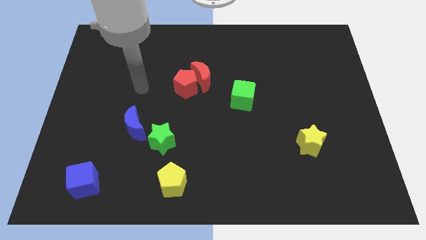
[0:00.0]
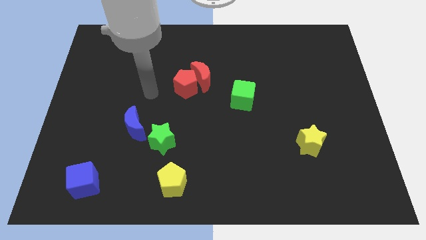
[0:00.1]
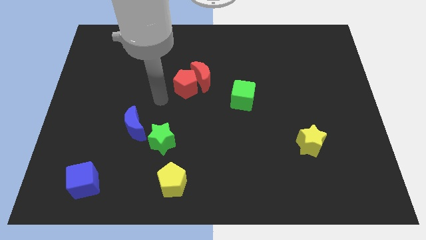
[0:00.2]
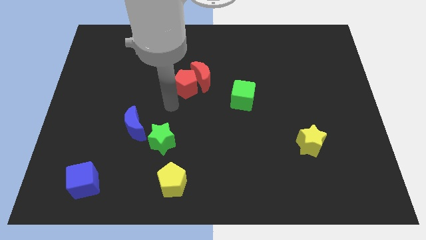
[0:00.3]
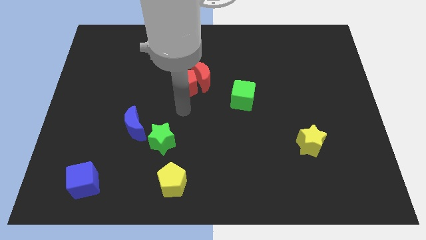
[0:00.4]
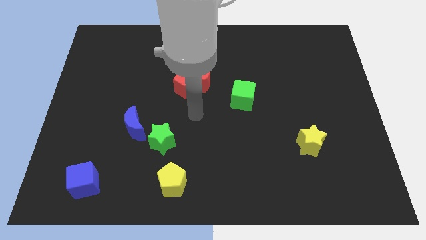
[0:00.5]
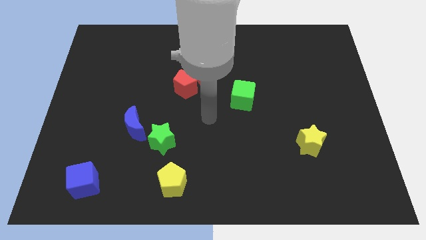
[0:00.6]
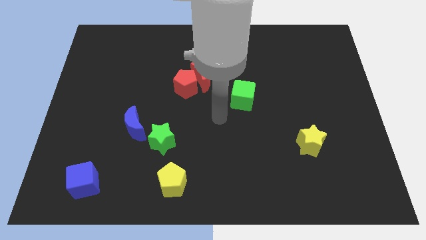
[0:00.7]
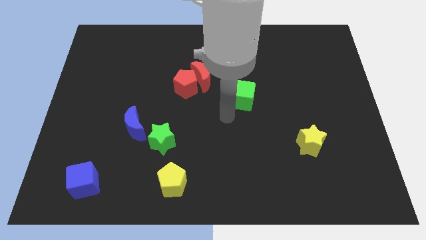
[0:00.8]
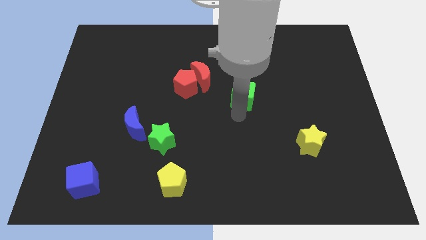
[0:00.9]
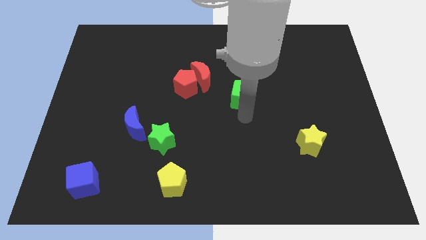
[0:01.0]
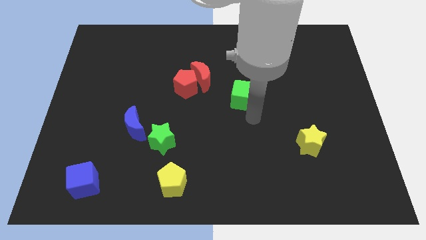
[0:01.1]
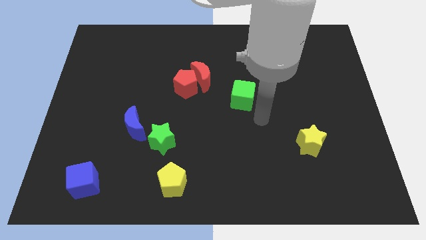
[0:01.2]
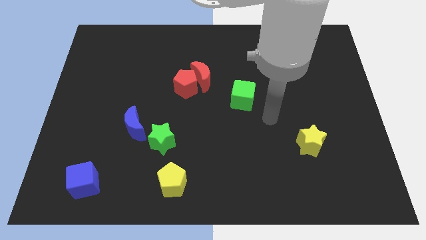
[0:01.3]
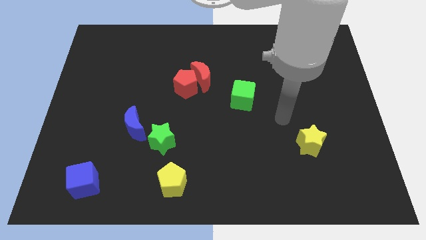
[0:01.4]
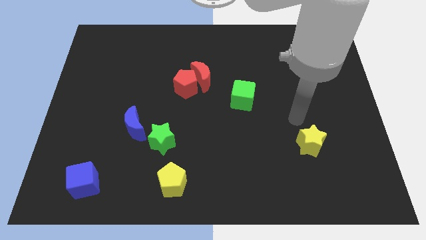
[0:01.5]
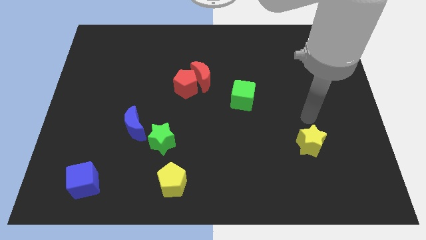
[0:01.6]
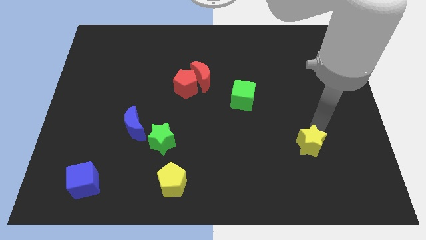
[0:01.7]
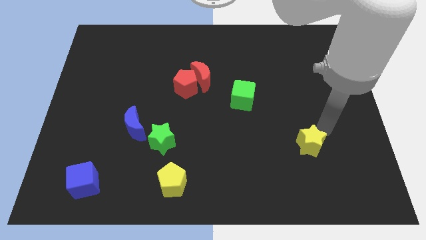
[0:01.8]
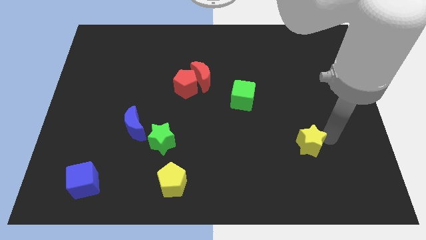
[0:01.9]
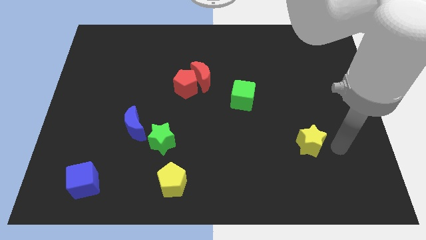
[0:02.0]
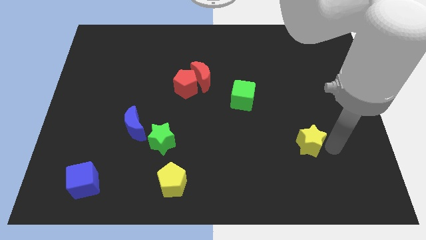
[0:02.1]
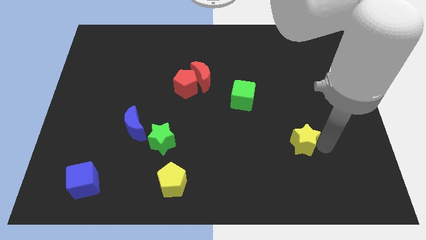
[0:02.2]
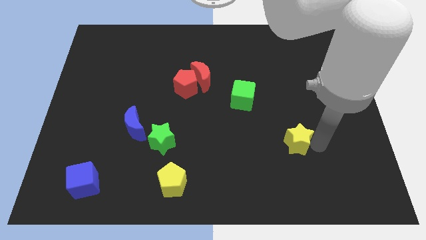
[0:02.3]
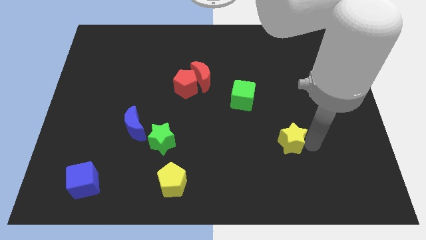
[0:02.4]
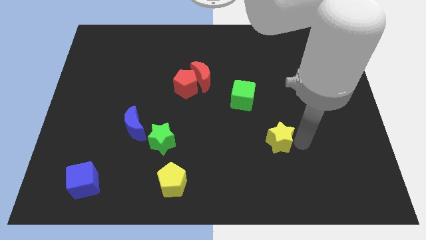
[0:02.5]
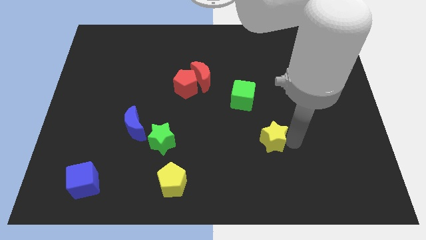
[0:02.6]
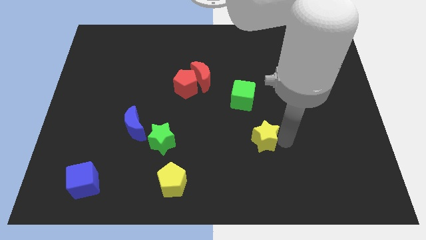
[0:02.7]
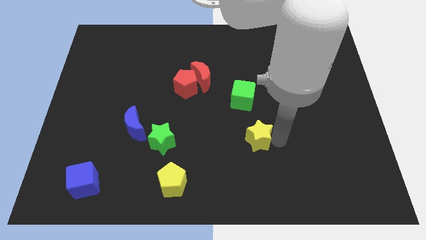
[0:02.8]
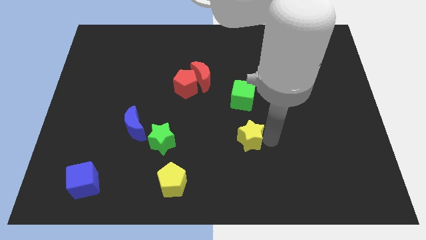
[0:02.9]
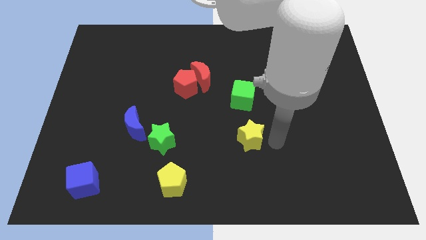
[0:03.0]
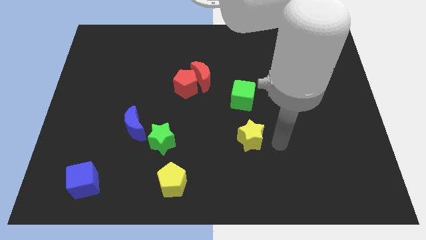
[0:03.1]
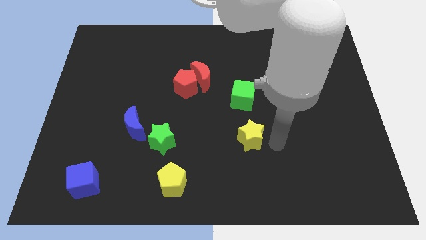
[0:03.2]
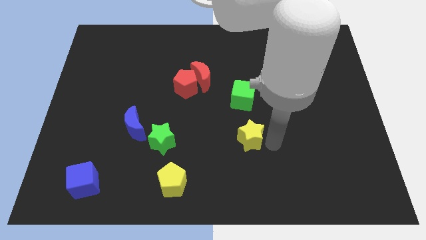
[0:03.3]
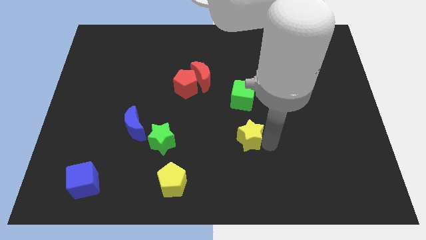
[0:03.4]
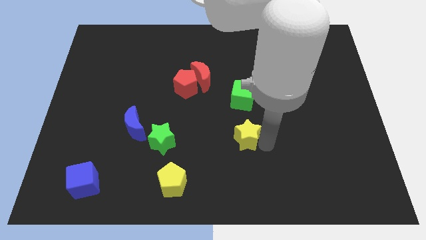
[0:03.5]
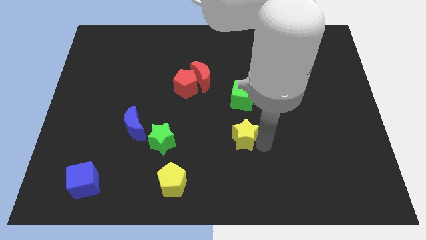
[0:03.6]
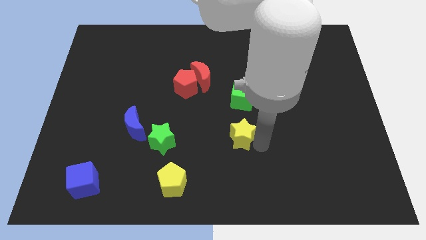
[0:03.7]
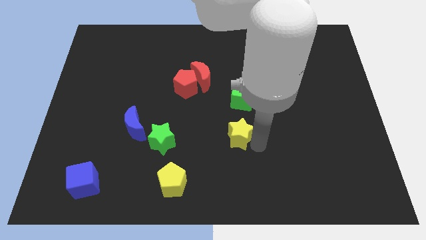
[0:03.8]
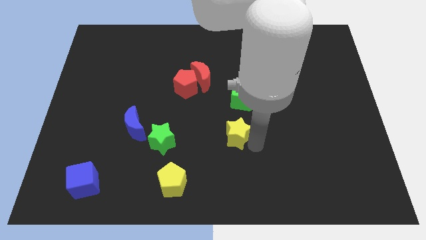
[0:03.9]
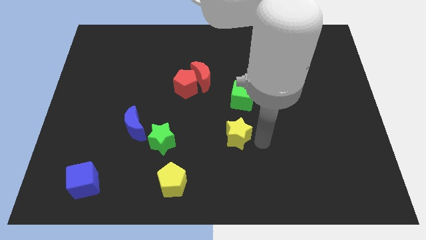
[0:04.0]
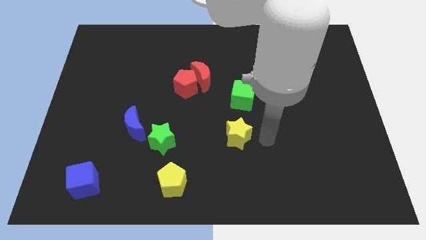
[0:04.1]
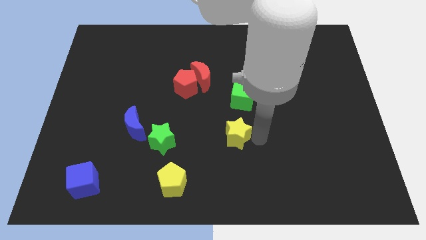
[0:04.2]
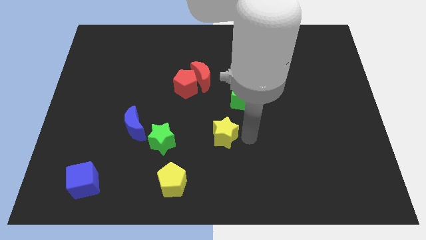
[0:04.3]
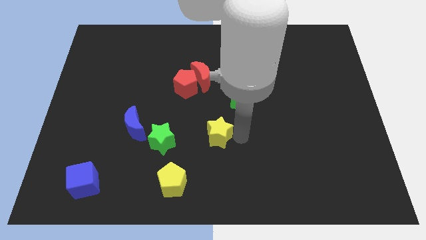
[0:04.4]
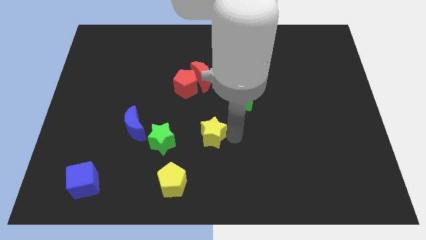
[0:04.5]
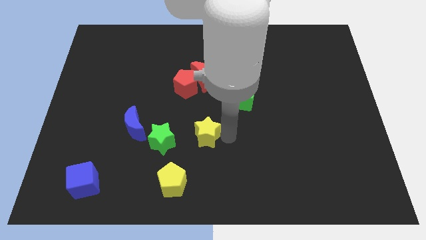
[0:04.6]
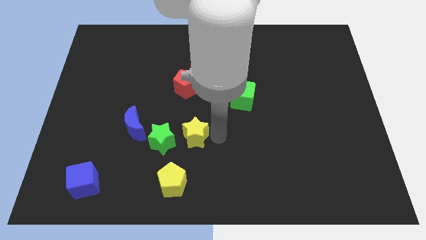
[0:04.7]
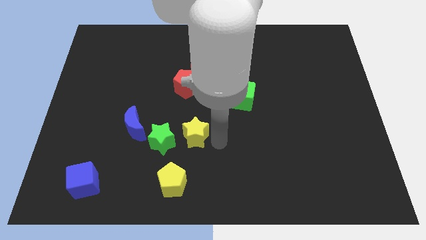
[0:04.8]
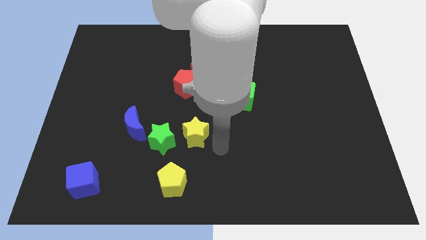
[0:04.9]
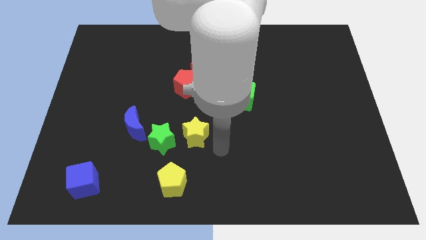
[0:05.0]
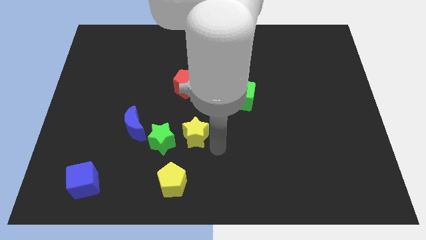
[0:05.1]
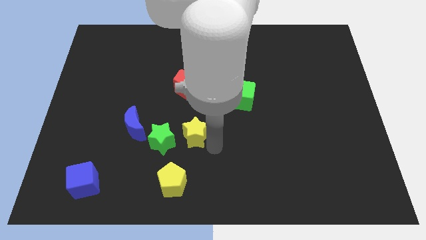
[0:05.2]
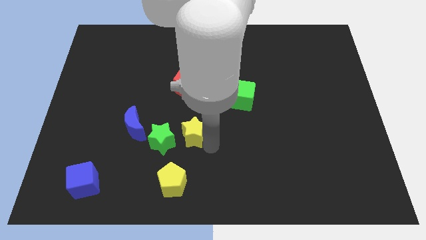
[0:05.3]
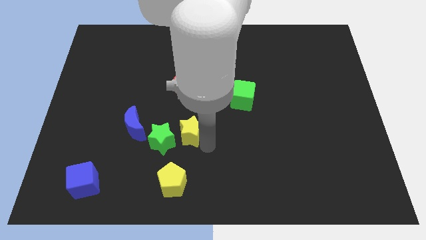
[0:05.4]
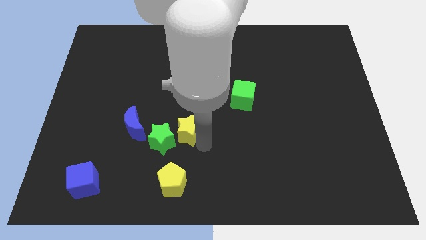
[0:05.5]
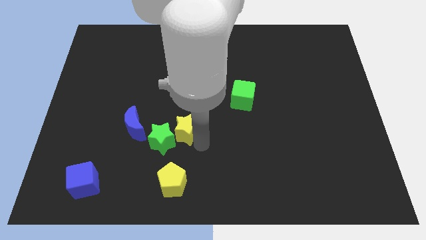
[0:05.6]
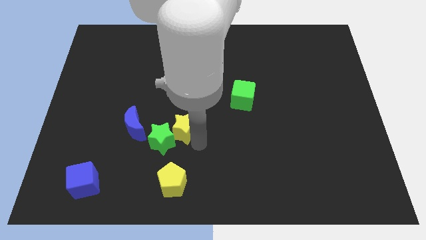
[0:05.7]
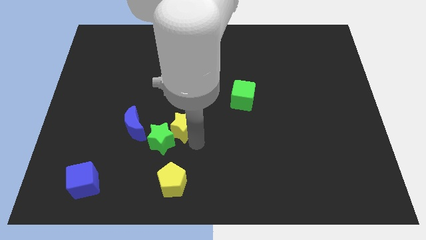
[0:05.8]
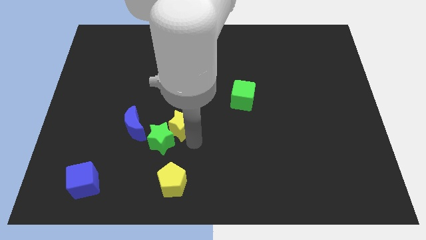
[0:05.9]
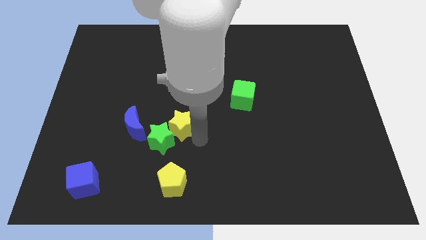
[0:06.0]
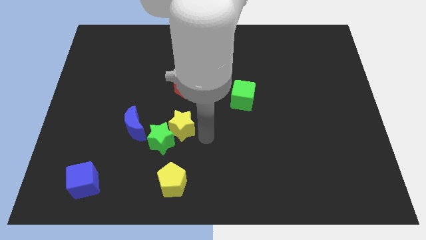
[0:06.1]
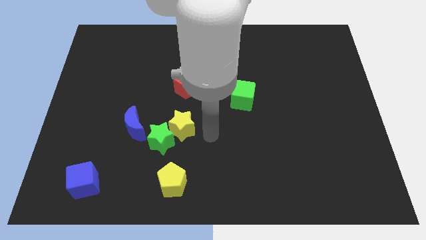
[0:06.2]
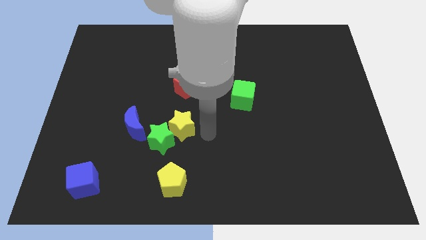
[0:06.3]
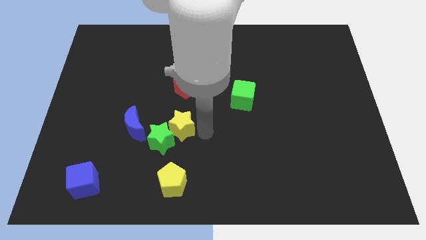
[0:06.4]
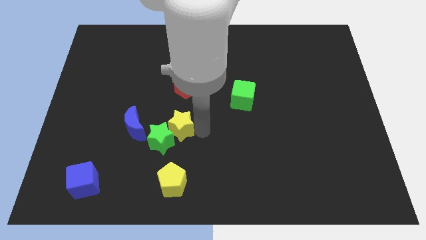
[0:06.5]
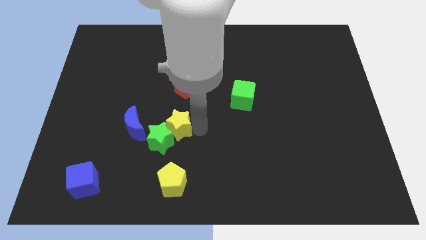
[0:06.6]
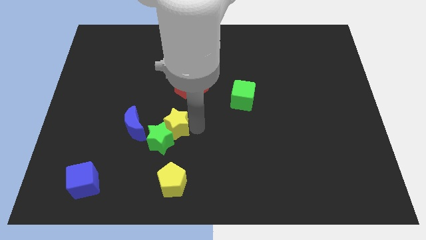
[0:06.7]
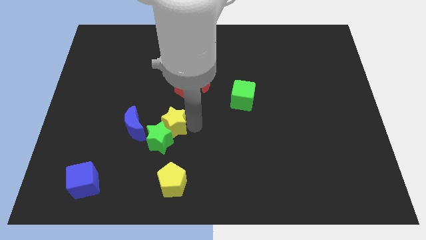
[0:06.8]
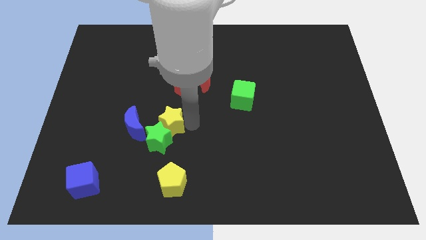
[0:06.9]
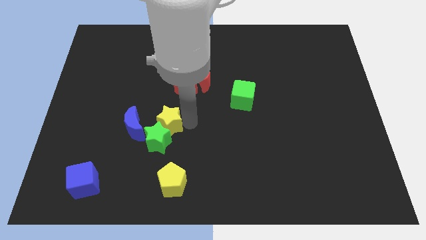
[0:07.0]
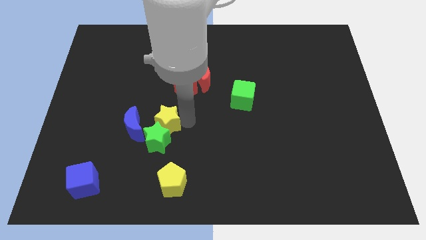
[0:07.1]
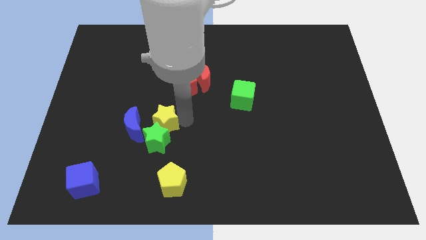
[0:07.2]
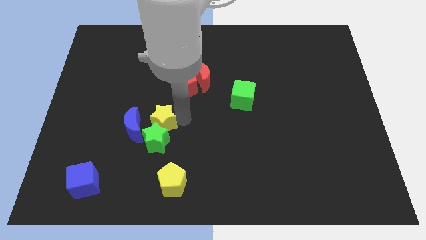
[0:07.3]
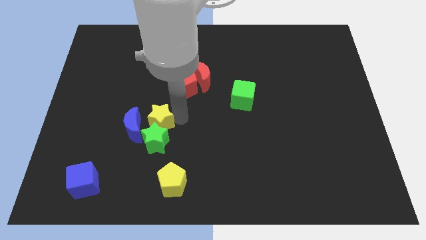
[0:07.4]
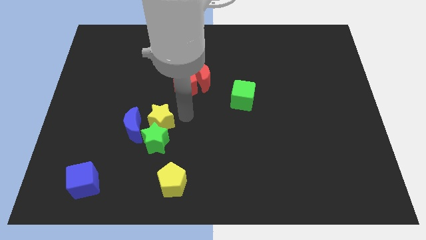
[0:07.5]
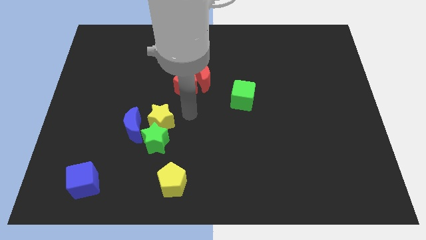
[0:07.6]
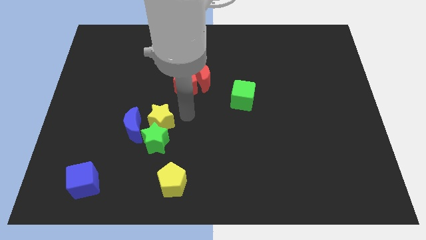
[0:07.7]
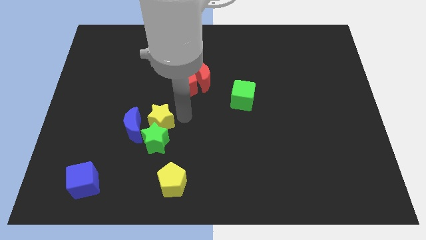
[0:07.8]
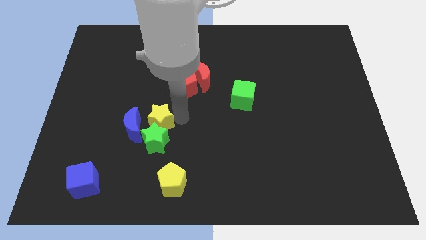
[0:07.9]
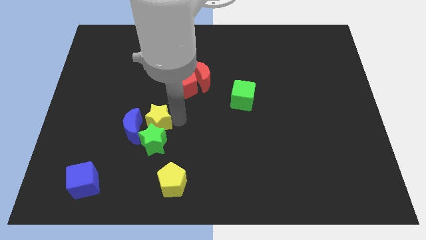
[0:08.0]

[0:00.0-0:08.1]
move the yellow star towards the blue moon
